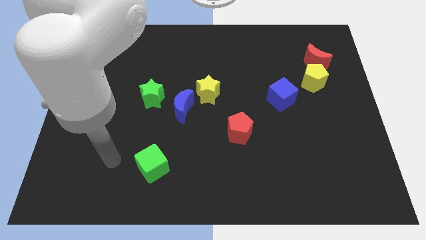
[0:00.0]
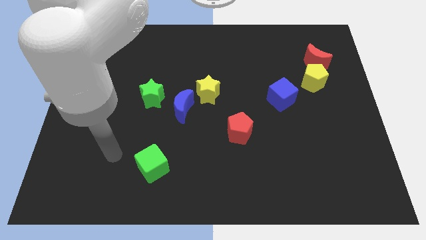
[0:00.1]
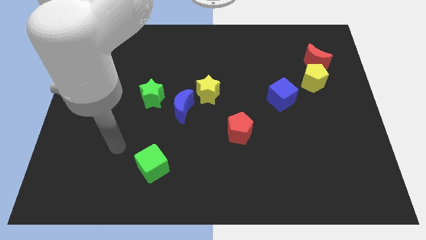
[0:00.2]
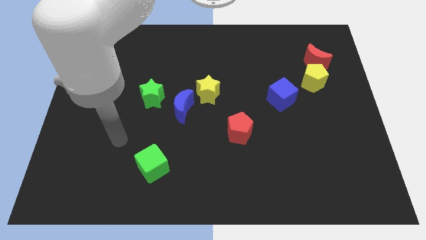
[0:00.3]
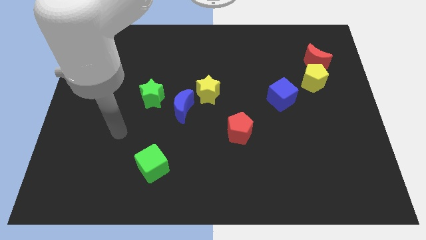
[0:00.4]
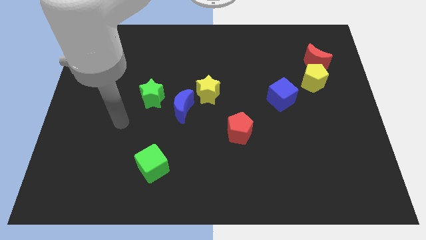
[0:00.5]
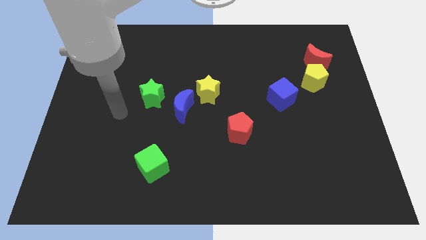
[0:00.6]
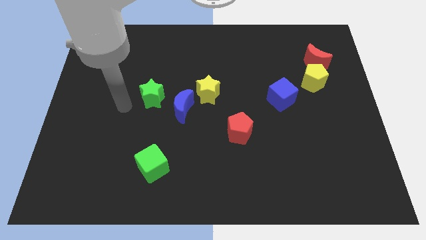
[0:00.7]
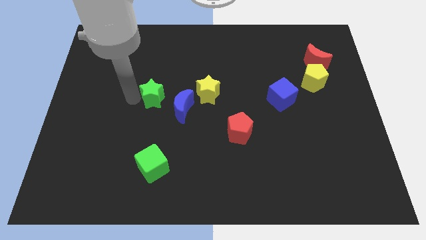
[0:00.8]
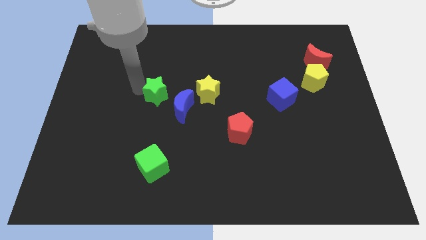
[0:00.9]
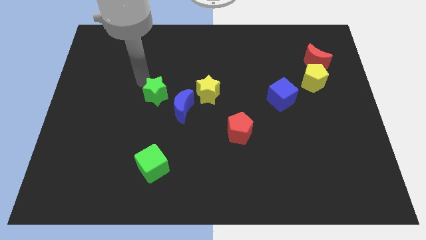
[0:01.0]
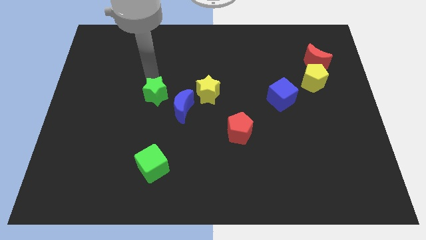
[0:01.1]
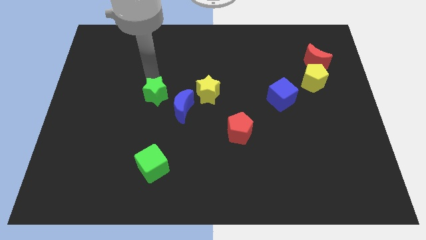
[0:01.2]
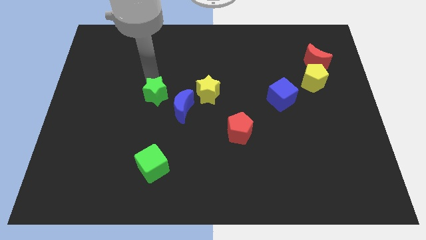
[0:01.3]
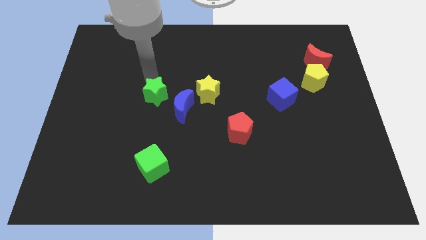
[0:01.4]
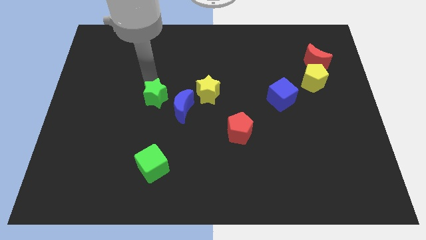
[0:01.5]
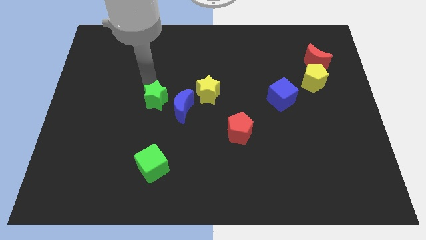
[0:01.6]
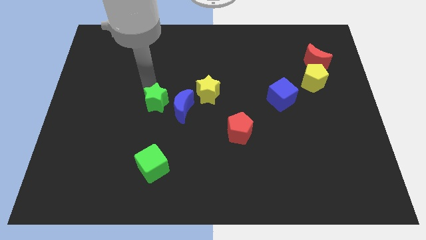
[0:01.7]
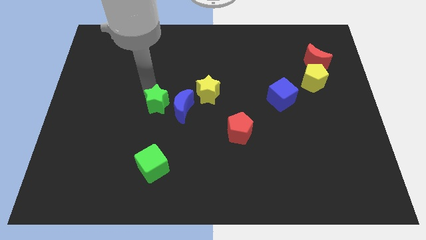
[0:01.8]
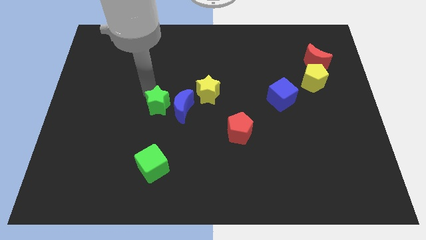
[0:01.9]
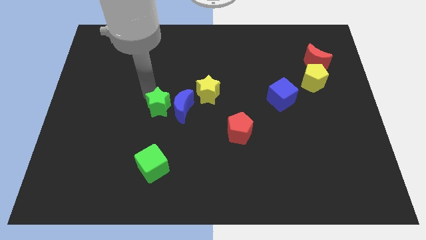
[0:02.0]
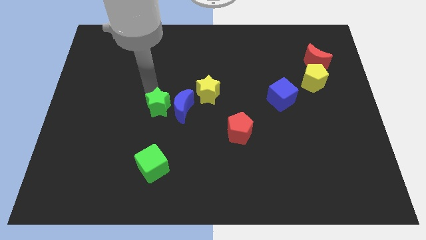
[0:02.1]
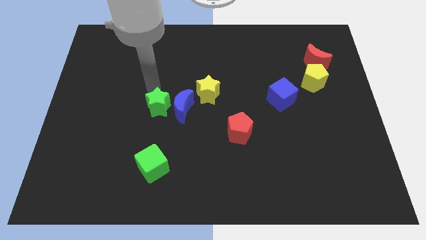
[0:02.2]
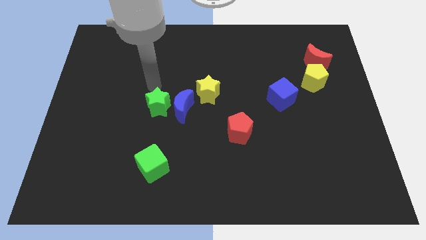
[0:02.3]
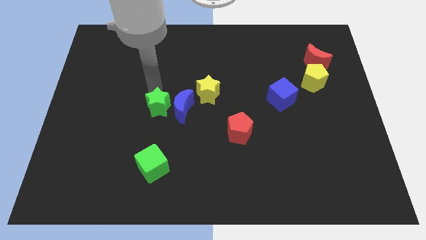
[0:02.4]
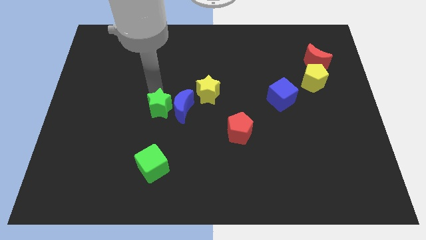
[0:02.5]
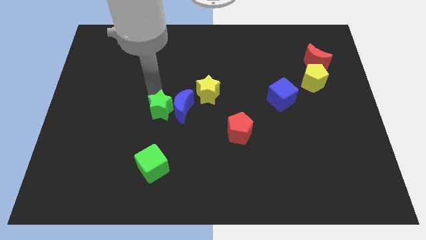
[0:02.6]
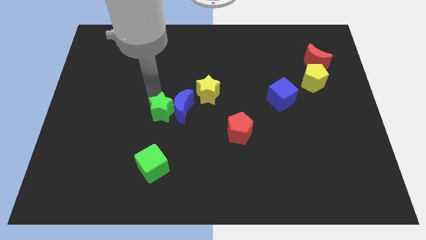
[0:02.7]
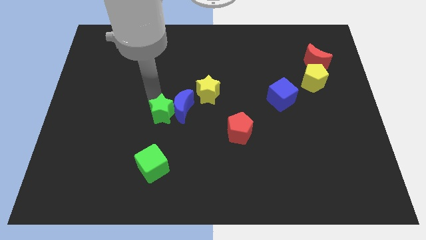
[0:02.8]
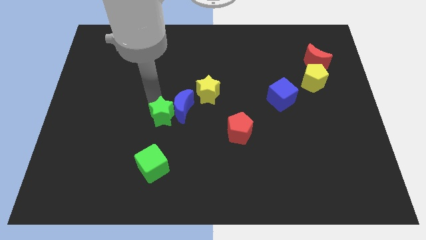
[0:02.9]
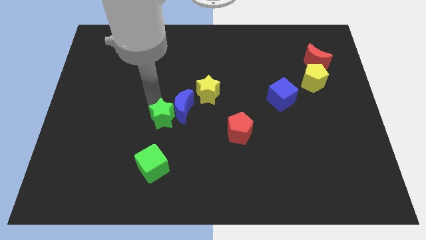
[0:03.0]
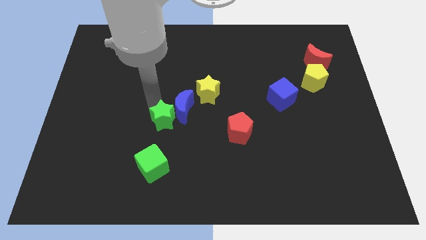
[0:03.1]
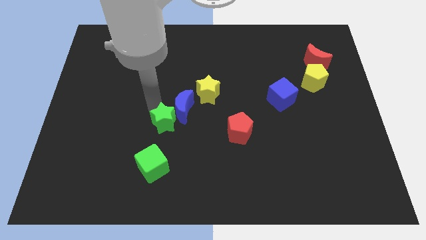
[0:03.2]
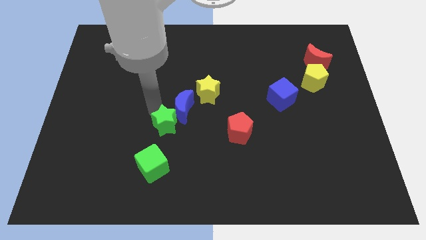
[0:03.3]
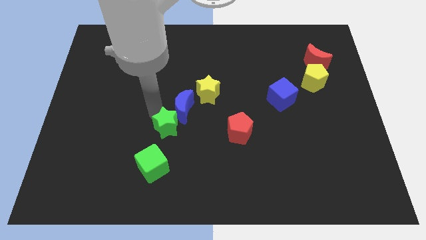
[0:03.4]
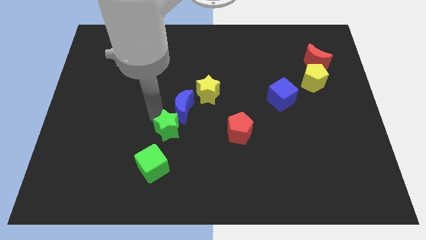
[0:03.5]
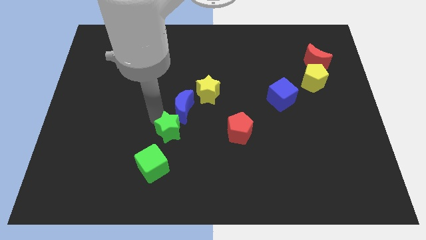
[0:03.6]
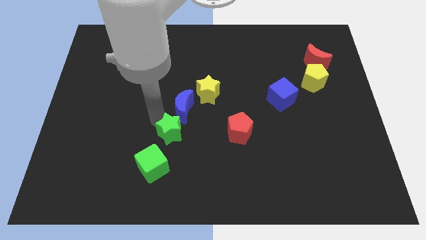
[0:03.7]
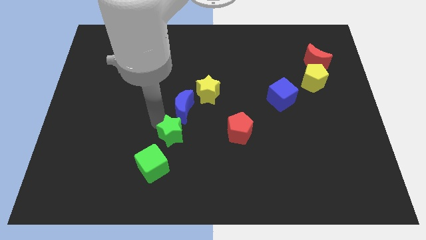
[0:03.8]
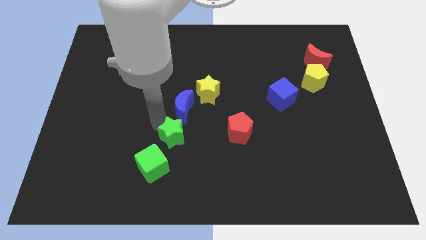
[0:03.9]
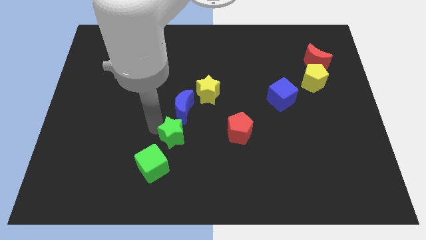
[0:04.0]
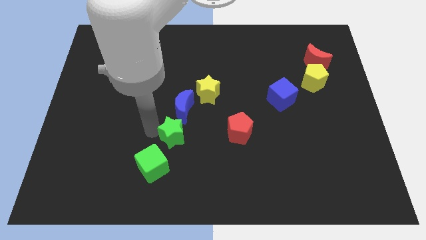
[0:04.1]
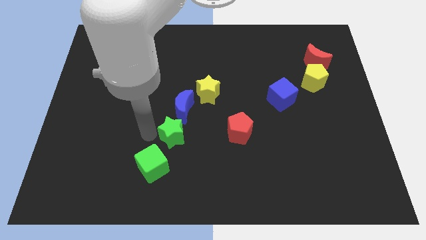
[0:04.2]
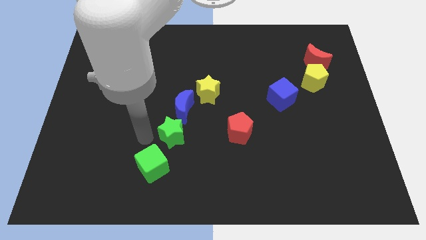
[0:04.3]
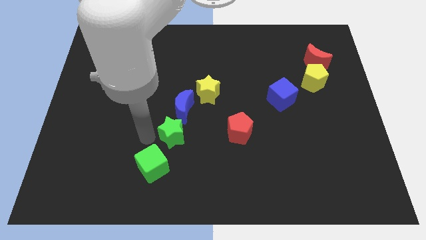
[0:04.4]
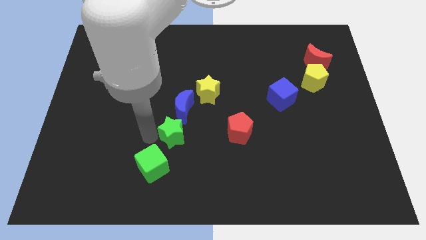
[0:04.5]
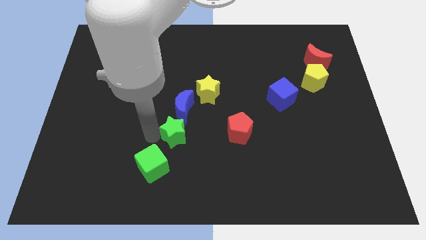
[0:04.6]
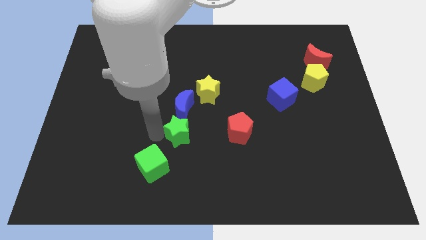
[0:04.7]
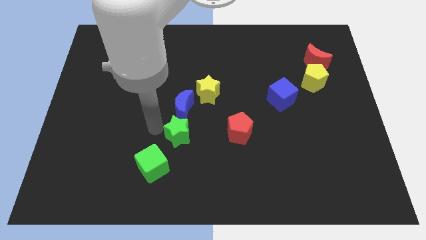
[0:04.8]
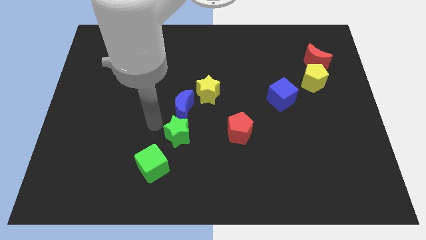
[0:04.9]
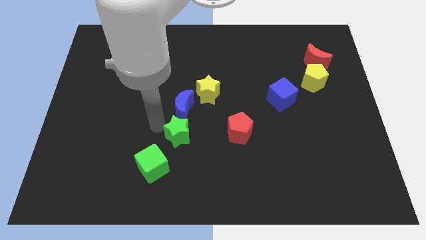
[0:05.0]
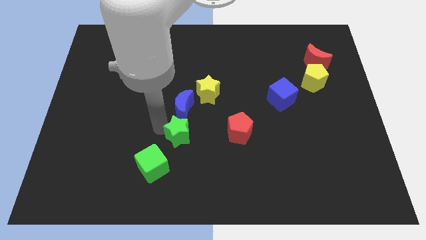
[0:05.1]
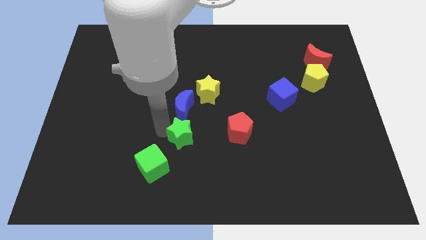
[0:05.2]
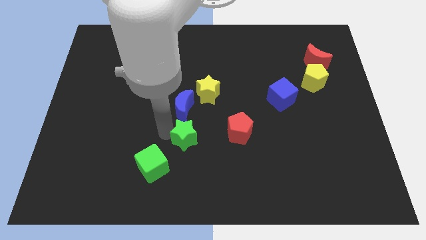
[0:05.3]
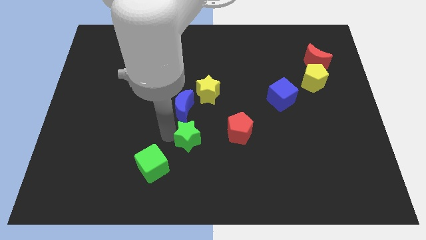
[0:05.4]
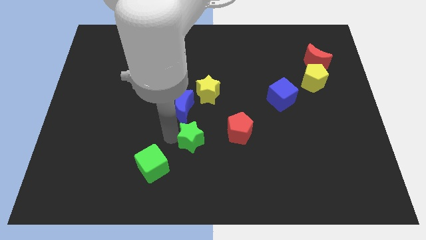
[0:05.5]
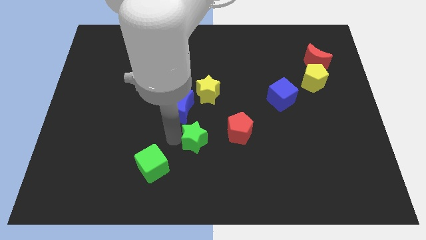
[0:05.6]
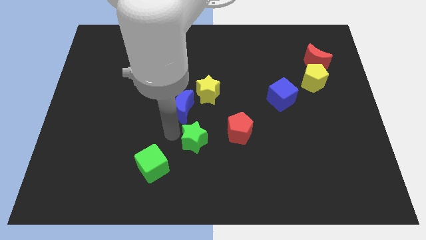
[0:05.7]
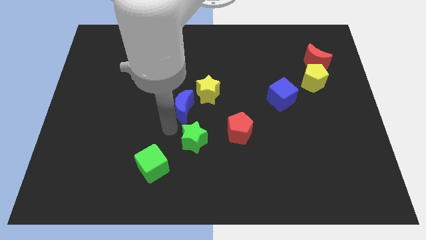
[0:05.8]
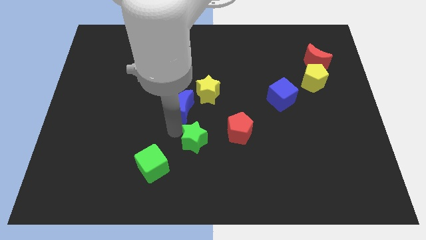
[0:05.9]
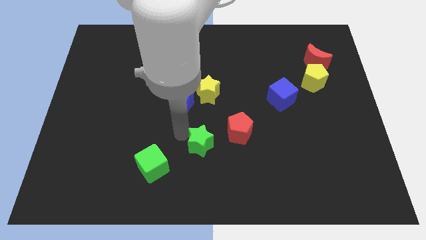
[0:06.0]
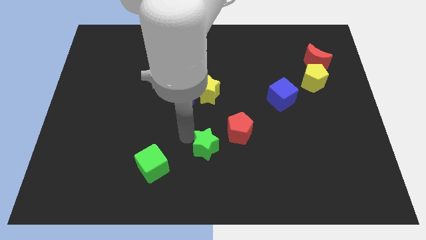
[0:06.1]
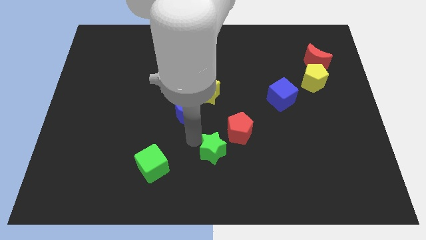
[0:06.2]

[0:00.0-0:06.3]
move the green star down and then right

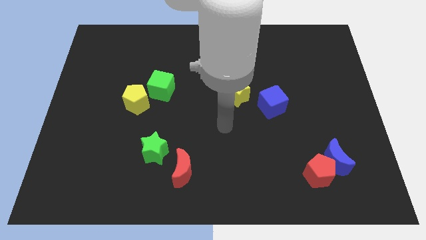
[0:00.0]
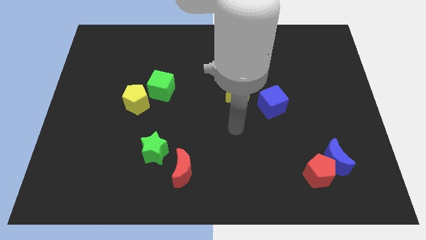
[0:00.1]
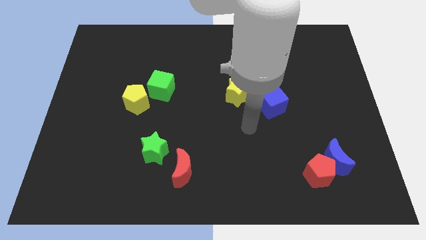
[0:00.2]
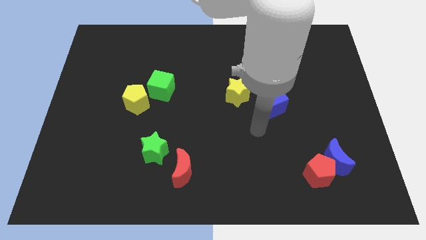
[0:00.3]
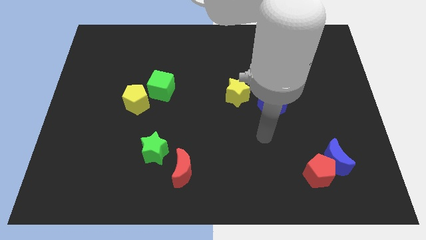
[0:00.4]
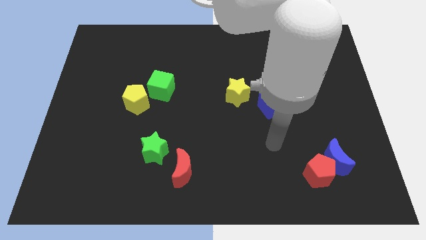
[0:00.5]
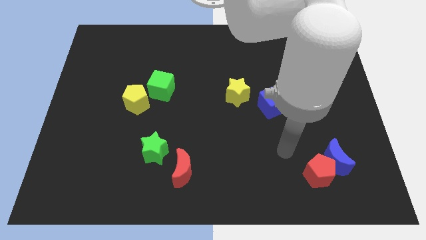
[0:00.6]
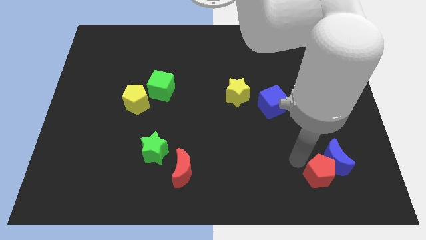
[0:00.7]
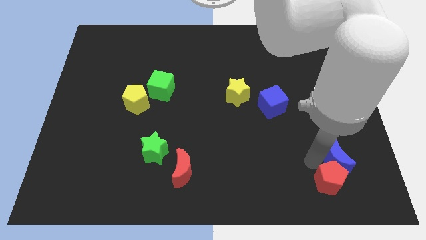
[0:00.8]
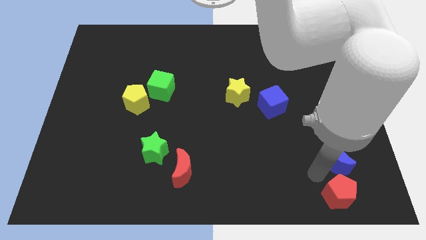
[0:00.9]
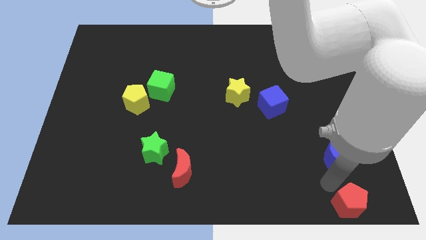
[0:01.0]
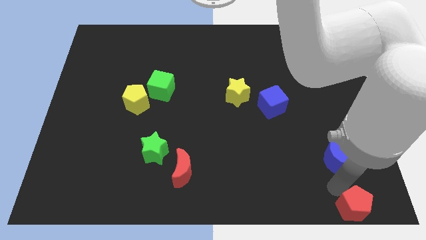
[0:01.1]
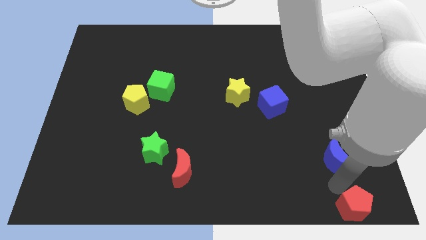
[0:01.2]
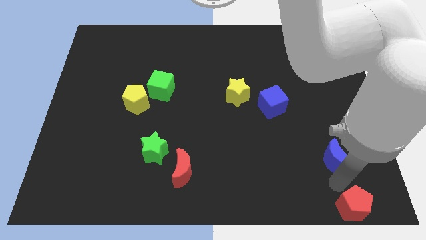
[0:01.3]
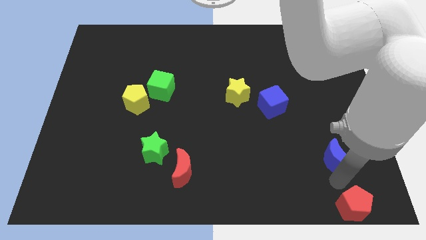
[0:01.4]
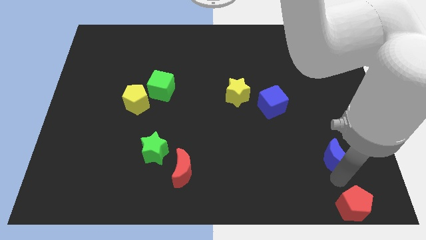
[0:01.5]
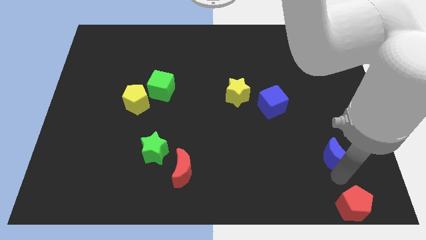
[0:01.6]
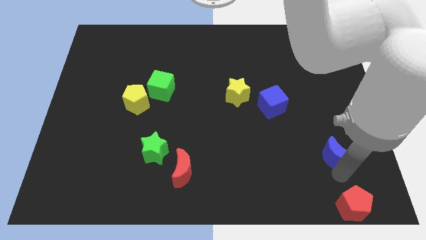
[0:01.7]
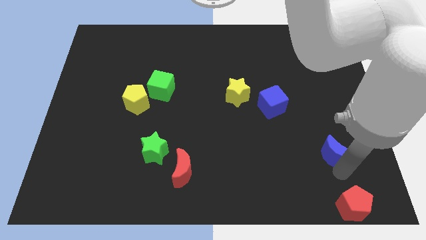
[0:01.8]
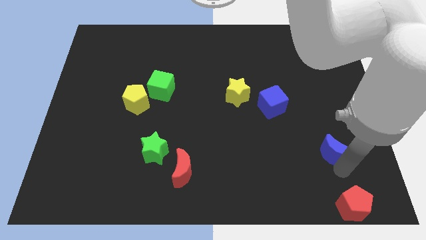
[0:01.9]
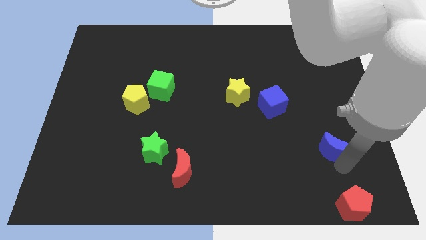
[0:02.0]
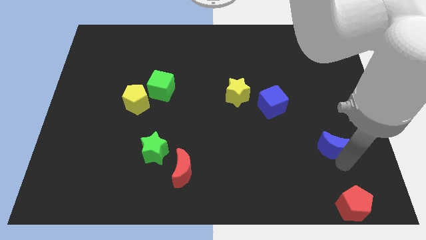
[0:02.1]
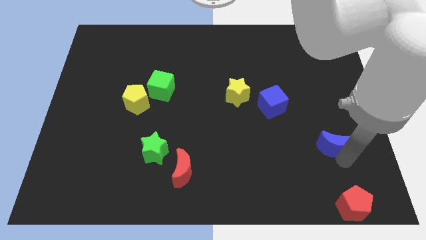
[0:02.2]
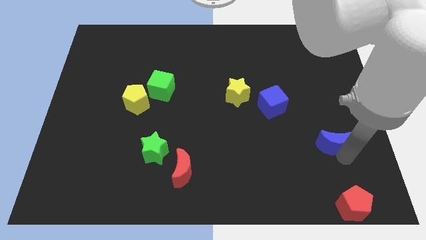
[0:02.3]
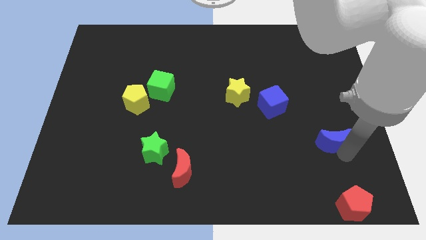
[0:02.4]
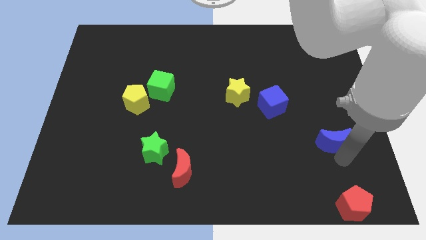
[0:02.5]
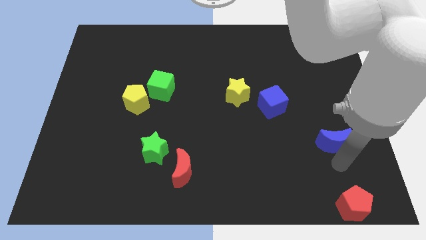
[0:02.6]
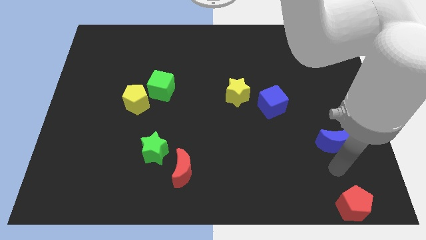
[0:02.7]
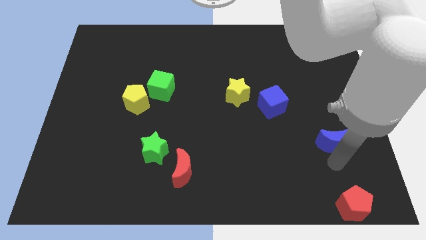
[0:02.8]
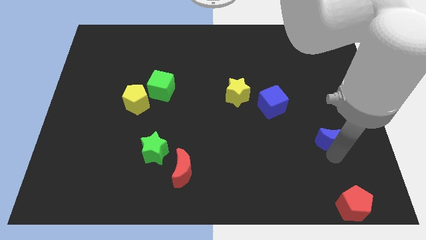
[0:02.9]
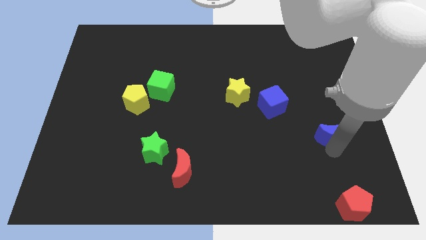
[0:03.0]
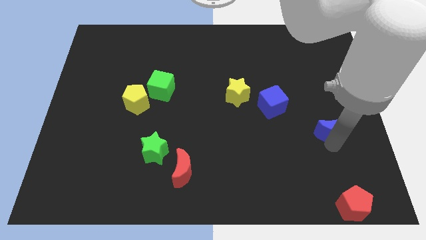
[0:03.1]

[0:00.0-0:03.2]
slide the blue moon up somewhat
